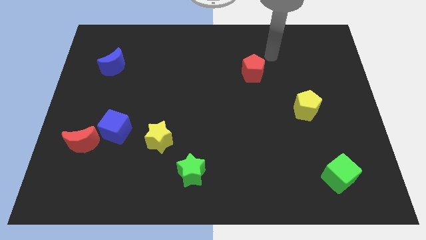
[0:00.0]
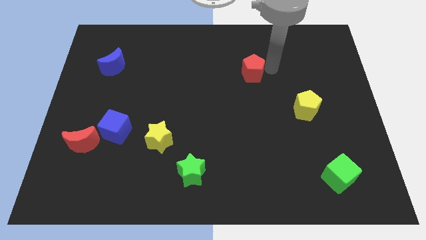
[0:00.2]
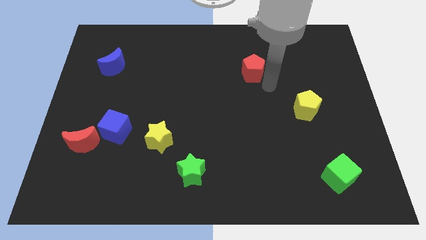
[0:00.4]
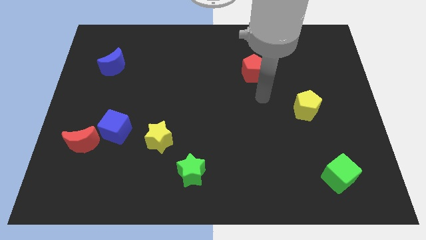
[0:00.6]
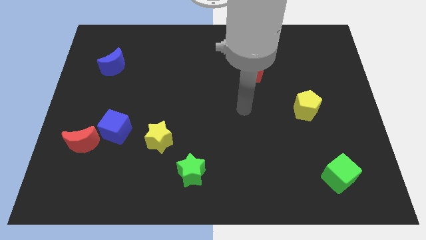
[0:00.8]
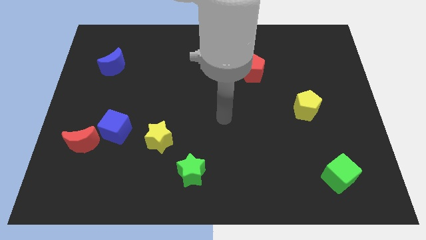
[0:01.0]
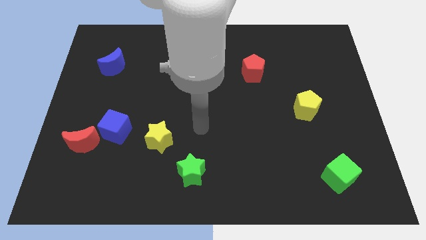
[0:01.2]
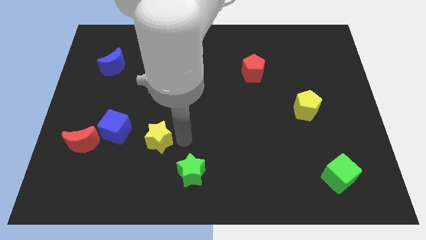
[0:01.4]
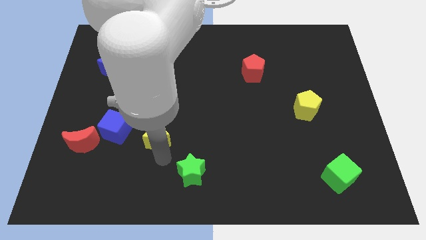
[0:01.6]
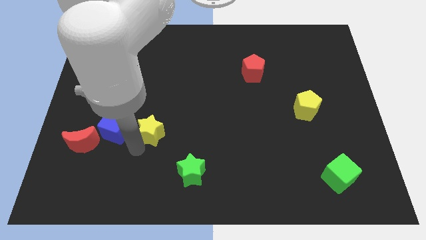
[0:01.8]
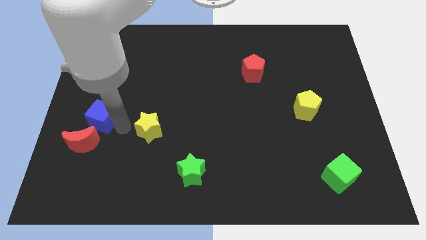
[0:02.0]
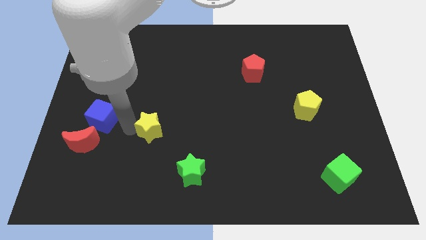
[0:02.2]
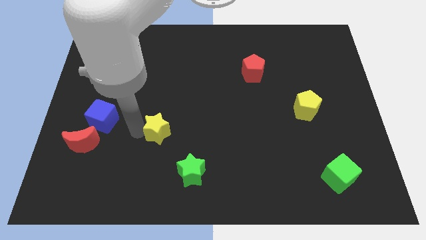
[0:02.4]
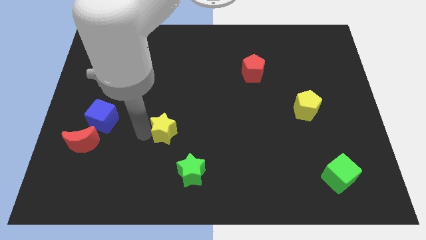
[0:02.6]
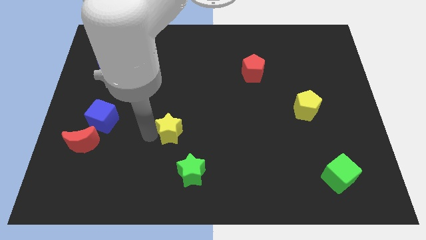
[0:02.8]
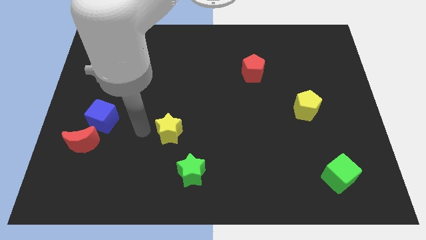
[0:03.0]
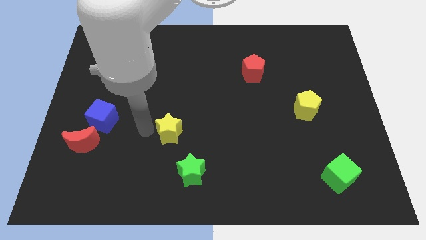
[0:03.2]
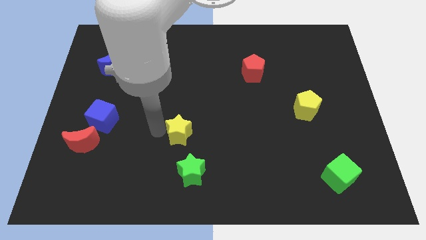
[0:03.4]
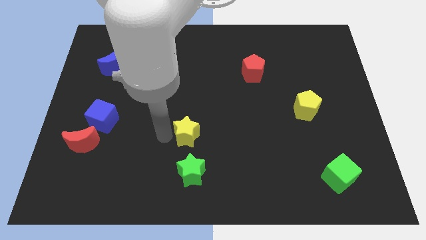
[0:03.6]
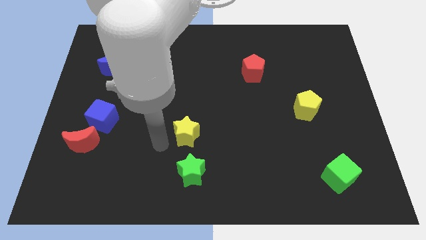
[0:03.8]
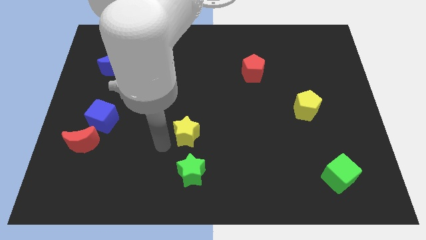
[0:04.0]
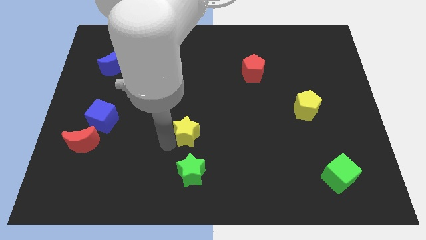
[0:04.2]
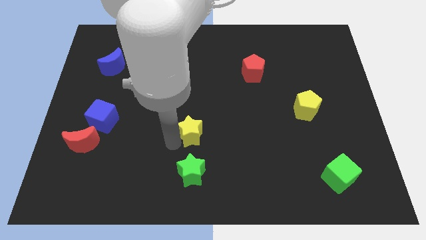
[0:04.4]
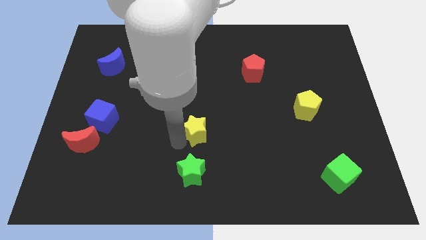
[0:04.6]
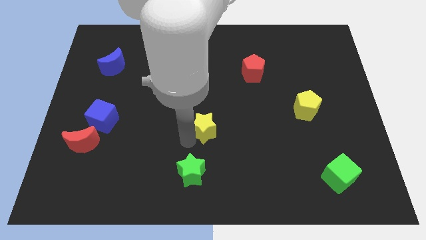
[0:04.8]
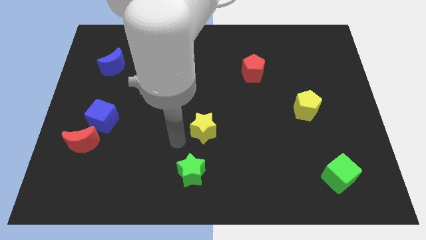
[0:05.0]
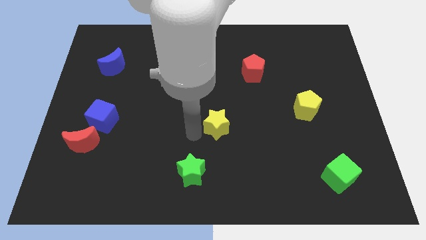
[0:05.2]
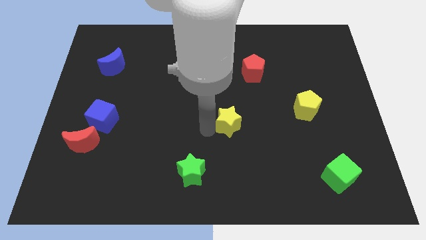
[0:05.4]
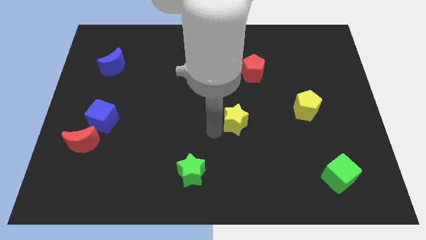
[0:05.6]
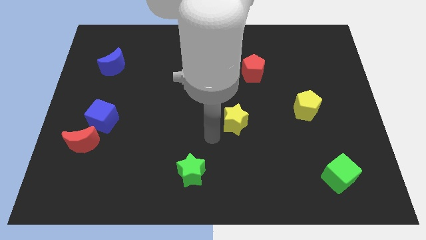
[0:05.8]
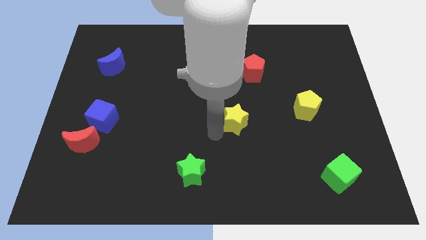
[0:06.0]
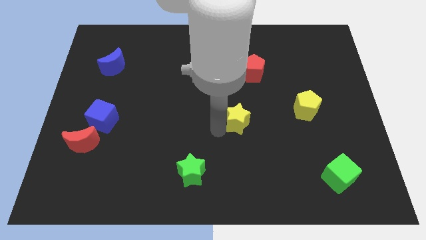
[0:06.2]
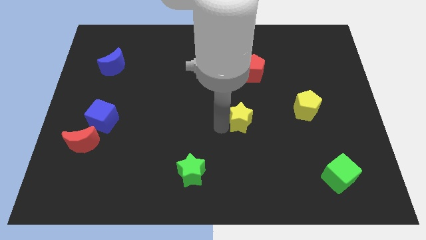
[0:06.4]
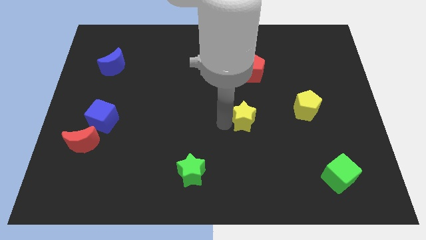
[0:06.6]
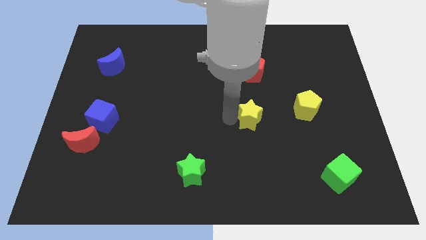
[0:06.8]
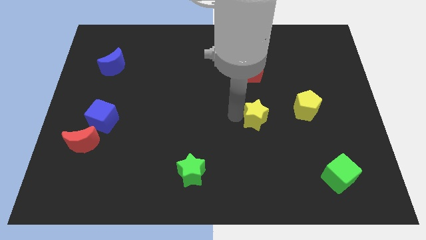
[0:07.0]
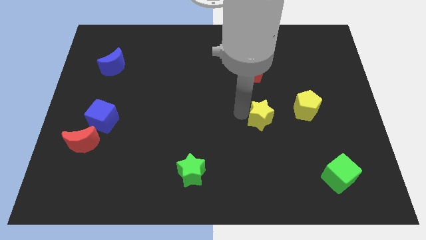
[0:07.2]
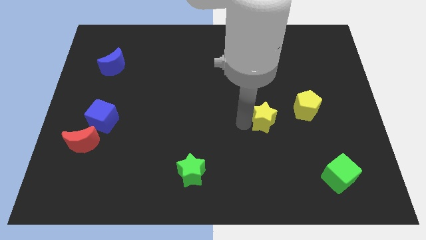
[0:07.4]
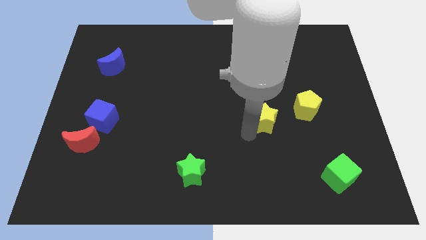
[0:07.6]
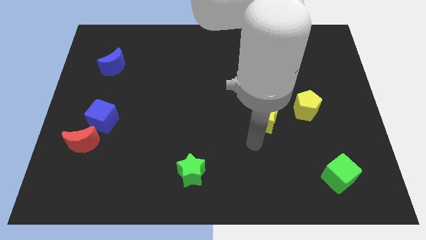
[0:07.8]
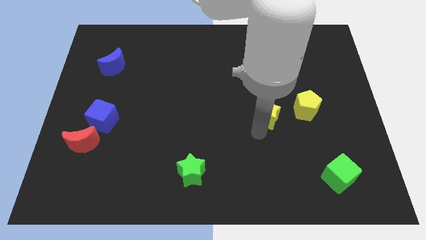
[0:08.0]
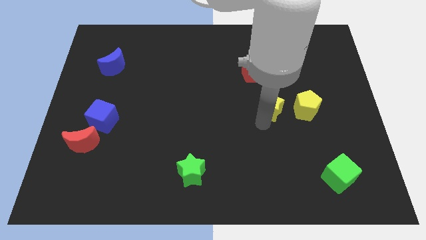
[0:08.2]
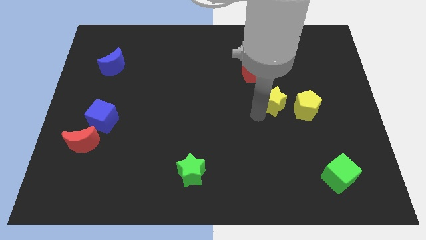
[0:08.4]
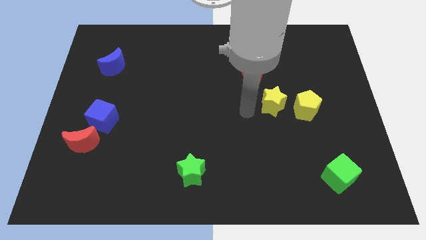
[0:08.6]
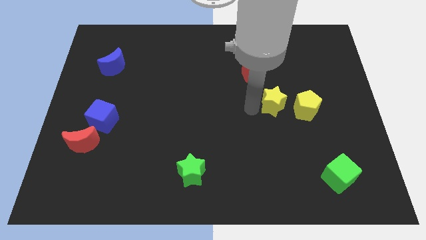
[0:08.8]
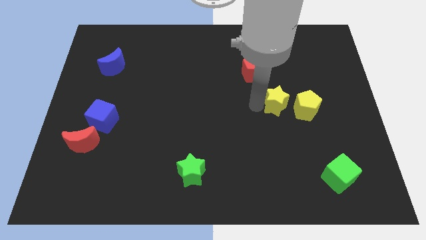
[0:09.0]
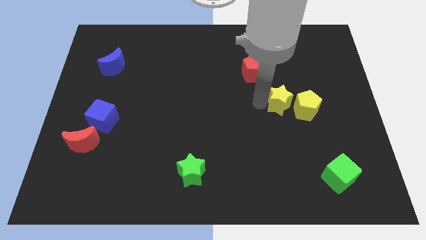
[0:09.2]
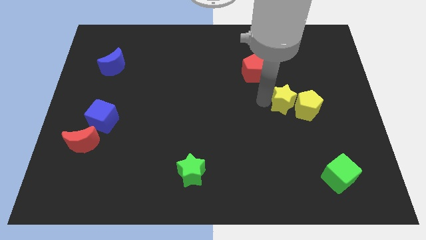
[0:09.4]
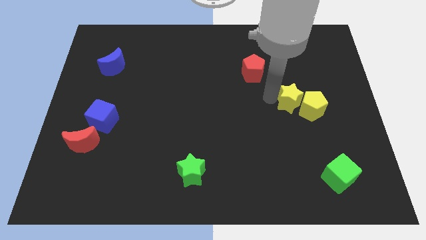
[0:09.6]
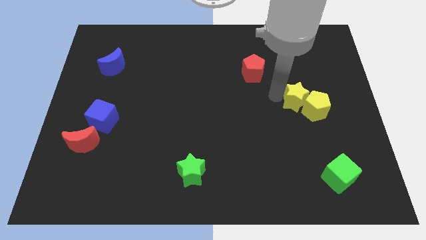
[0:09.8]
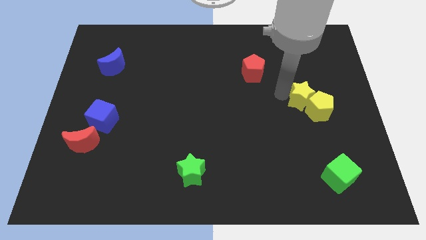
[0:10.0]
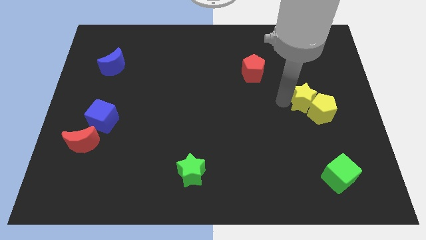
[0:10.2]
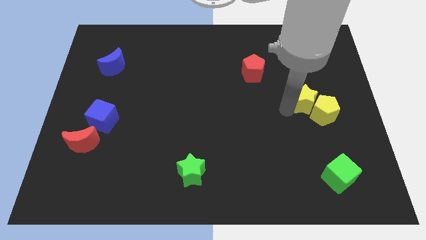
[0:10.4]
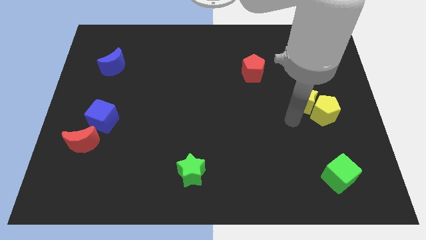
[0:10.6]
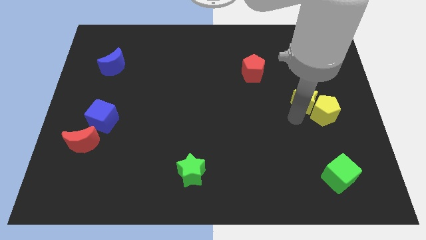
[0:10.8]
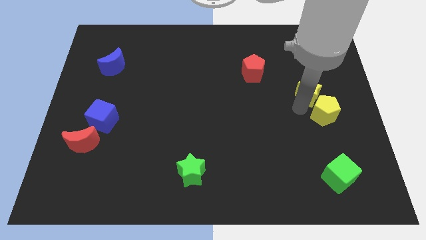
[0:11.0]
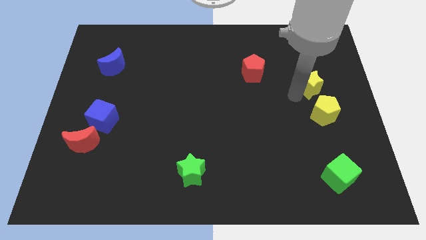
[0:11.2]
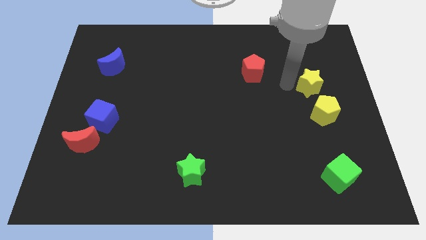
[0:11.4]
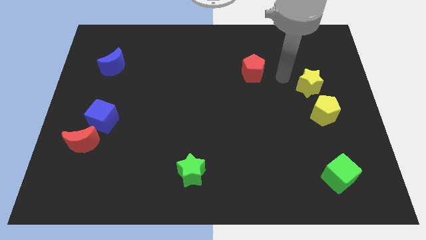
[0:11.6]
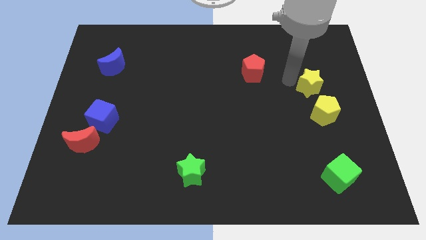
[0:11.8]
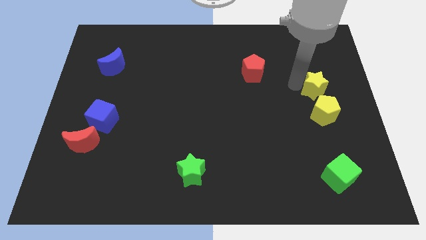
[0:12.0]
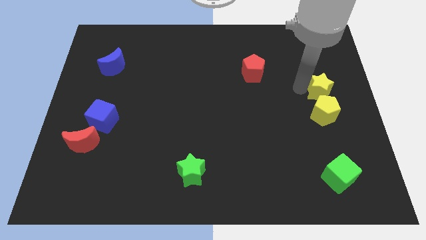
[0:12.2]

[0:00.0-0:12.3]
slide the yellow star to the top right of the yellow pentagon

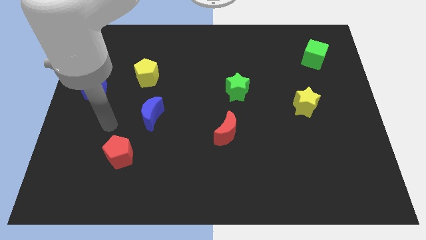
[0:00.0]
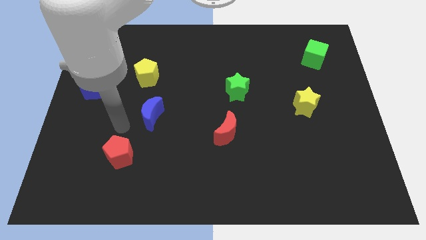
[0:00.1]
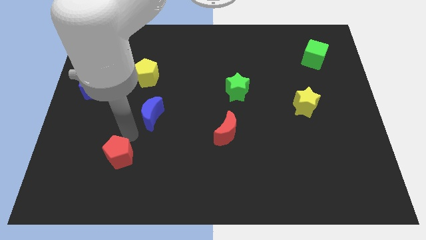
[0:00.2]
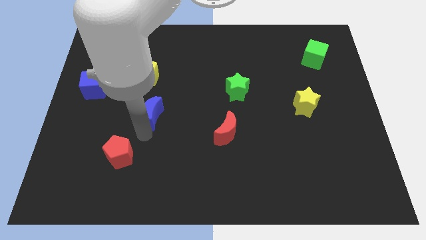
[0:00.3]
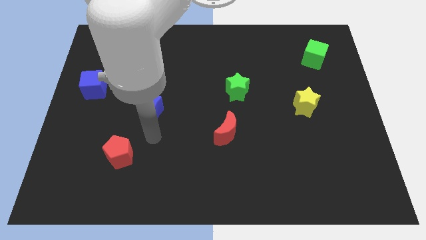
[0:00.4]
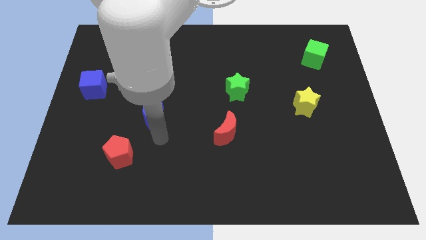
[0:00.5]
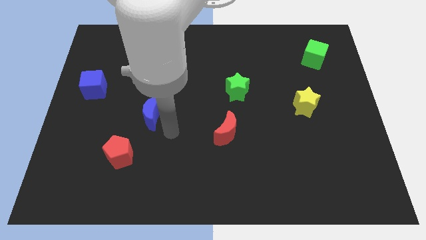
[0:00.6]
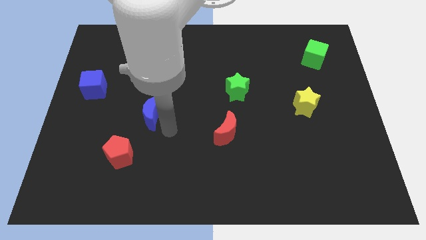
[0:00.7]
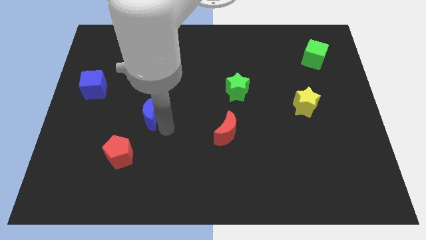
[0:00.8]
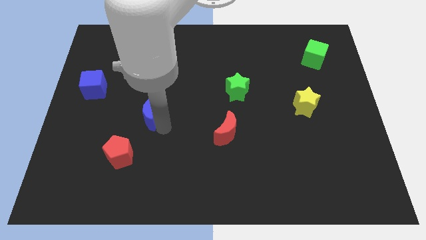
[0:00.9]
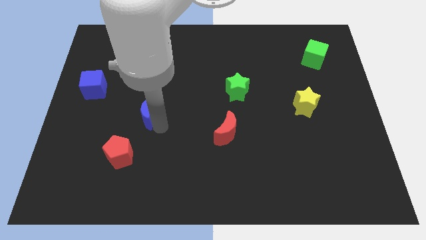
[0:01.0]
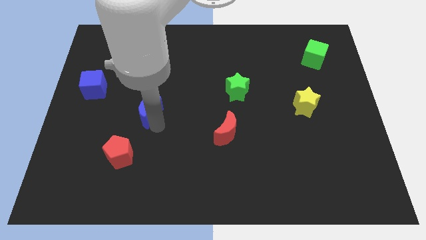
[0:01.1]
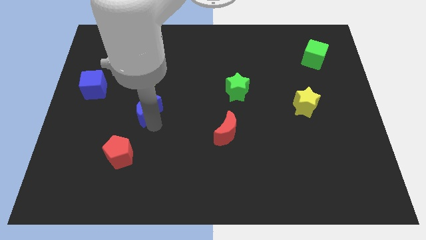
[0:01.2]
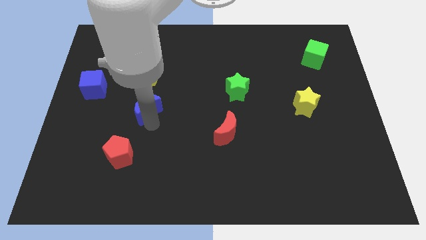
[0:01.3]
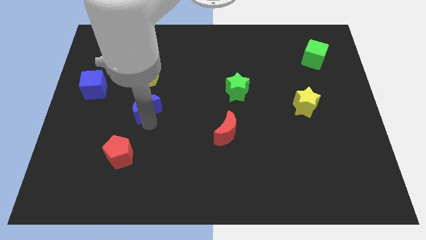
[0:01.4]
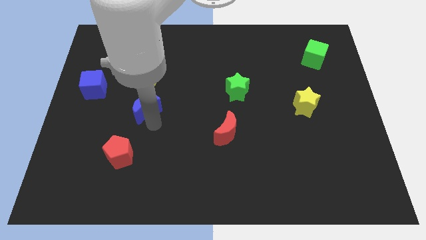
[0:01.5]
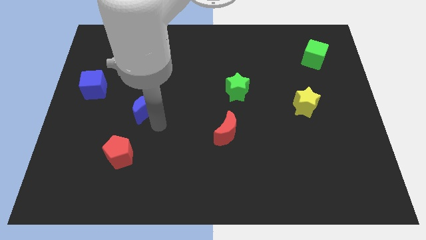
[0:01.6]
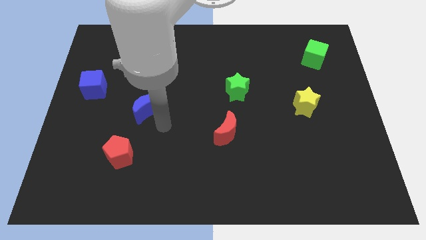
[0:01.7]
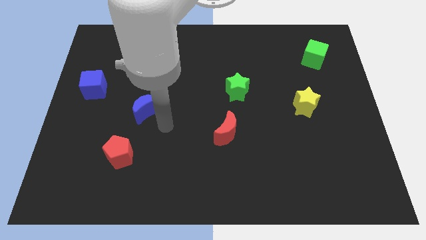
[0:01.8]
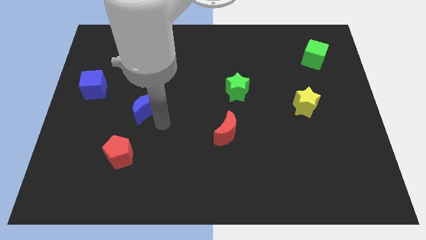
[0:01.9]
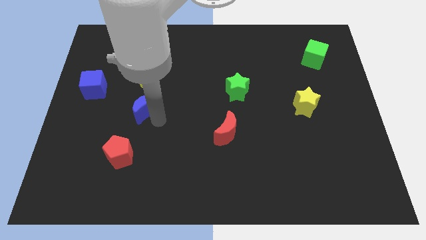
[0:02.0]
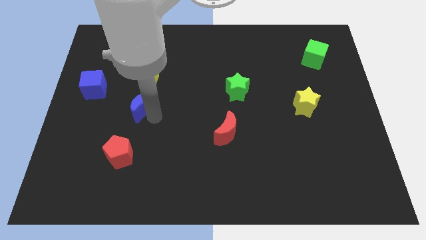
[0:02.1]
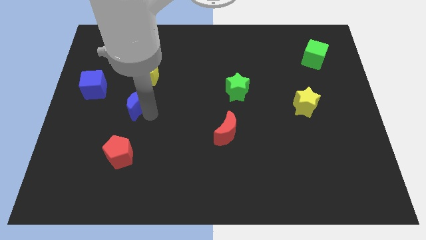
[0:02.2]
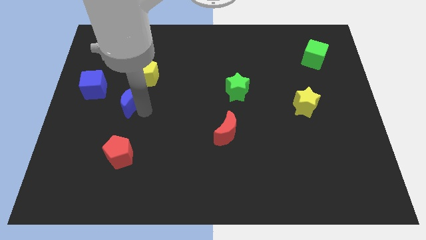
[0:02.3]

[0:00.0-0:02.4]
push the blue moon to the bottom left side of the yellow pentagon
